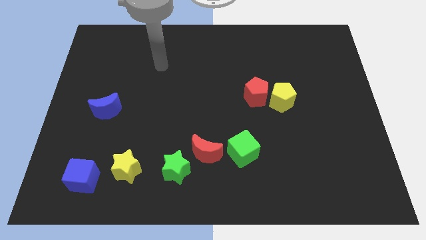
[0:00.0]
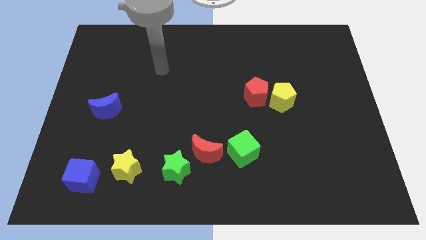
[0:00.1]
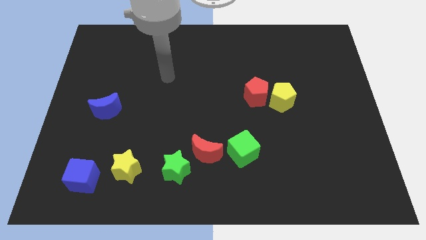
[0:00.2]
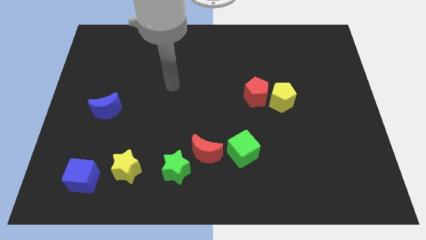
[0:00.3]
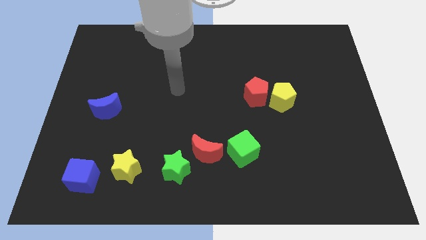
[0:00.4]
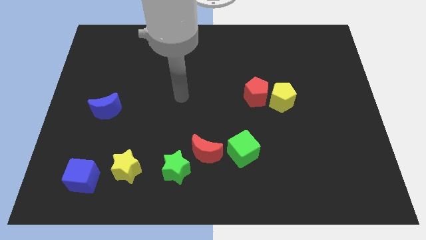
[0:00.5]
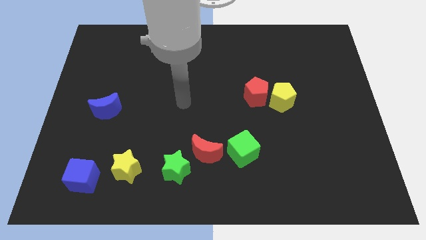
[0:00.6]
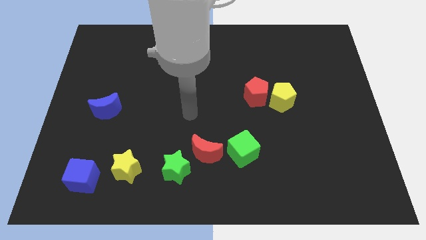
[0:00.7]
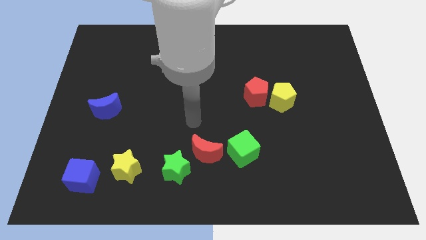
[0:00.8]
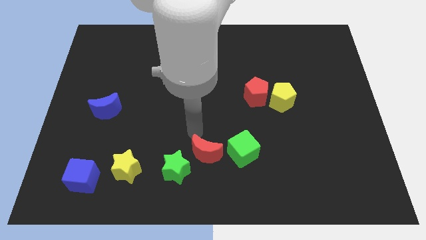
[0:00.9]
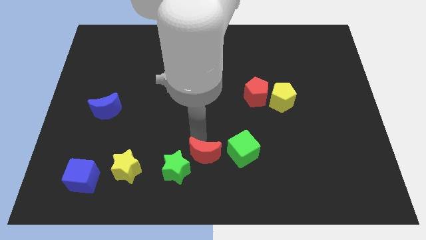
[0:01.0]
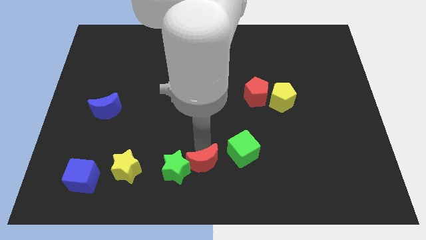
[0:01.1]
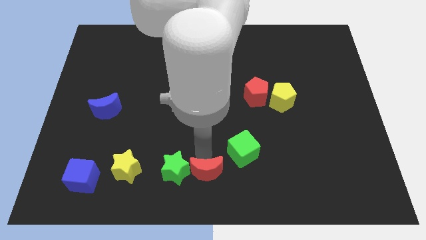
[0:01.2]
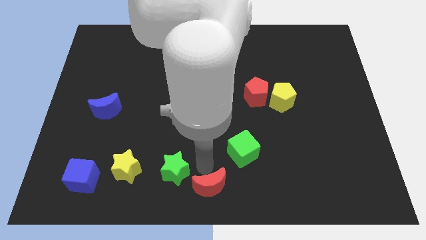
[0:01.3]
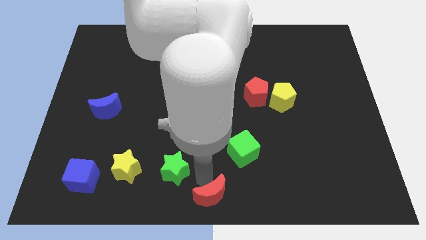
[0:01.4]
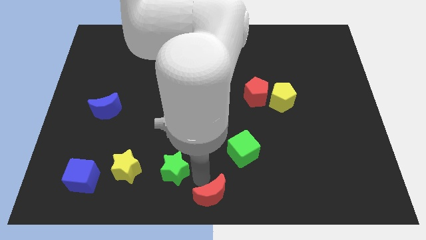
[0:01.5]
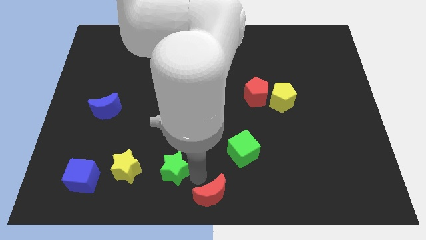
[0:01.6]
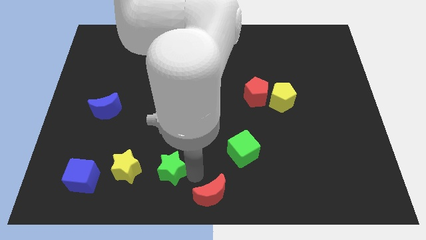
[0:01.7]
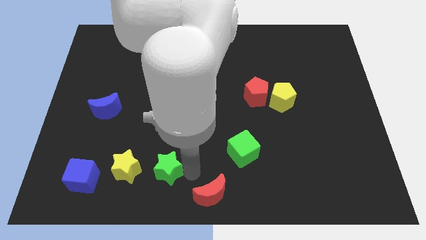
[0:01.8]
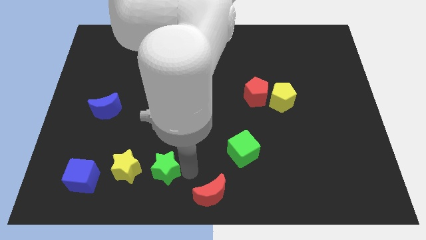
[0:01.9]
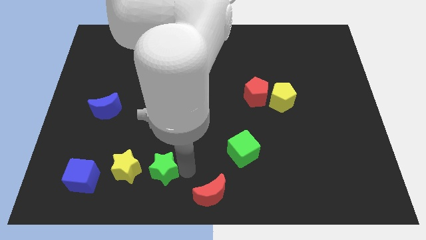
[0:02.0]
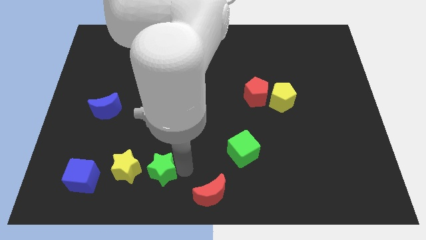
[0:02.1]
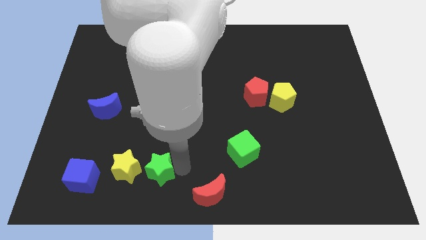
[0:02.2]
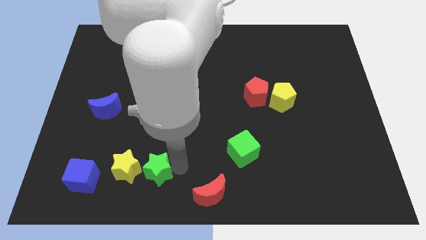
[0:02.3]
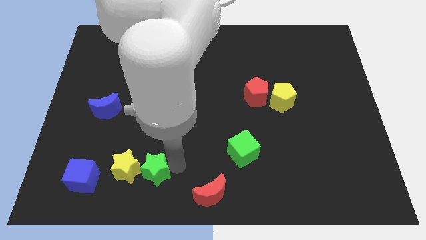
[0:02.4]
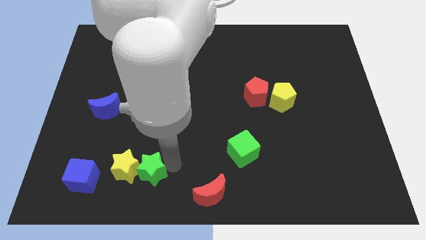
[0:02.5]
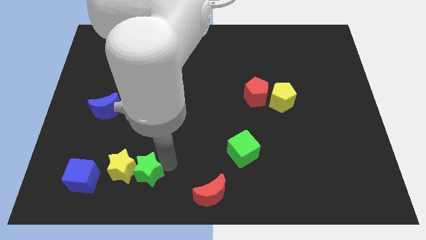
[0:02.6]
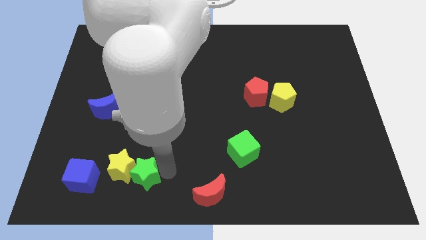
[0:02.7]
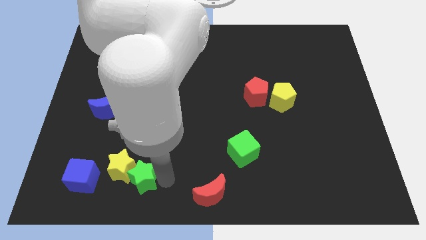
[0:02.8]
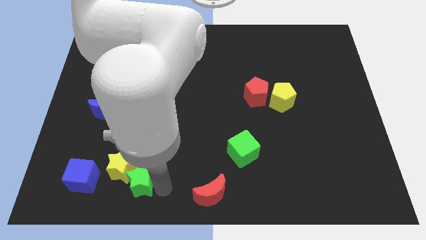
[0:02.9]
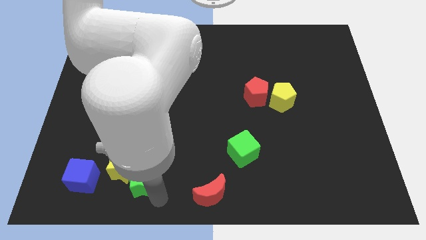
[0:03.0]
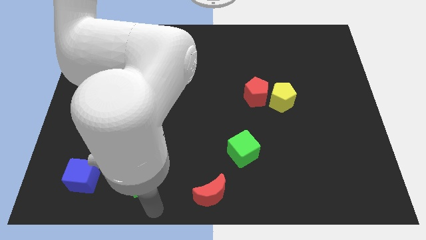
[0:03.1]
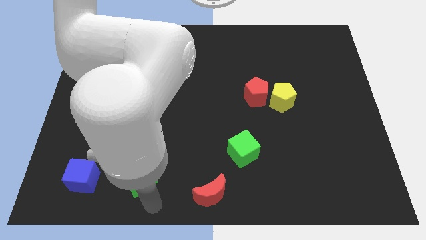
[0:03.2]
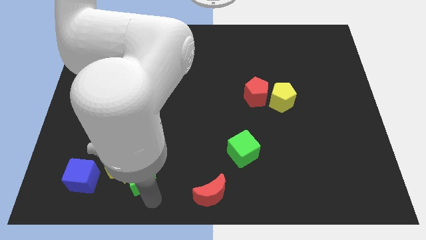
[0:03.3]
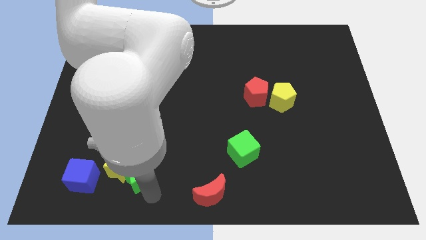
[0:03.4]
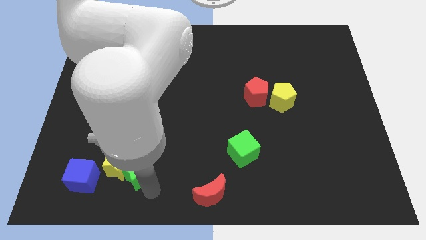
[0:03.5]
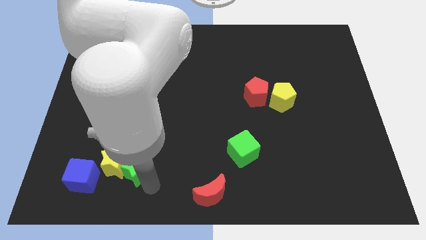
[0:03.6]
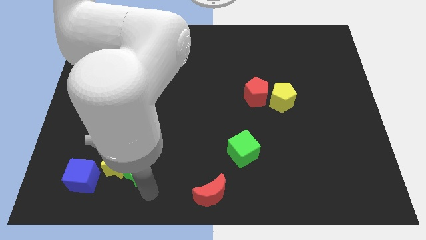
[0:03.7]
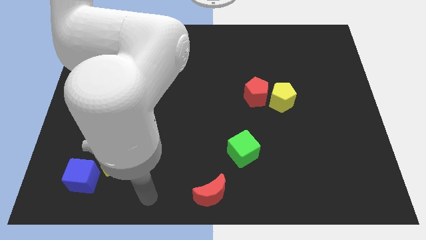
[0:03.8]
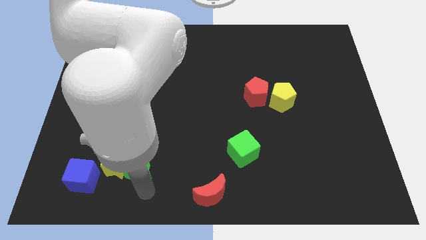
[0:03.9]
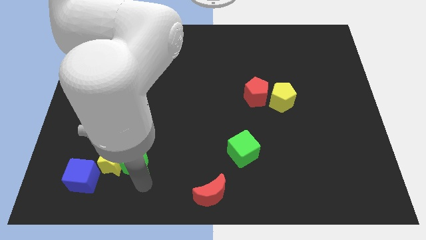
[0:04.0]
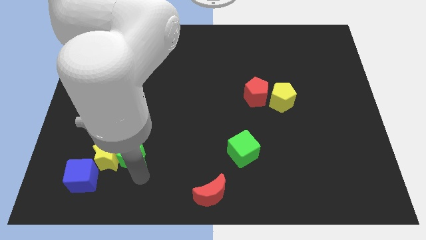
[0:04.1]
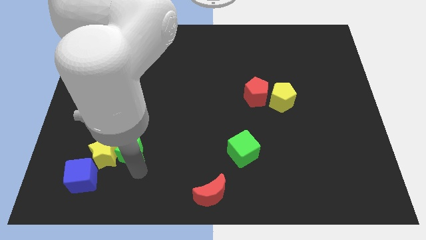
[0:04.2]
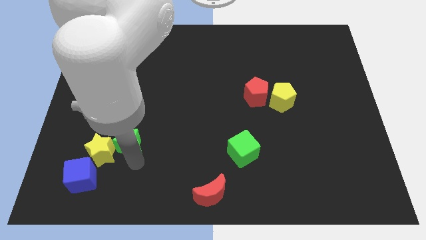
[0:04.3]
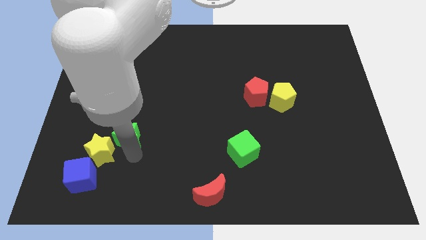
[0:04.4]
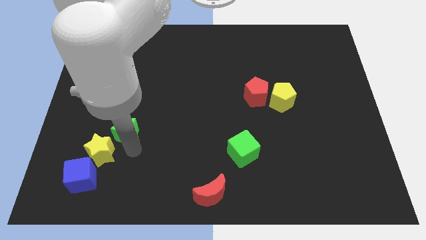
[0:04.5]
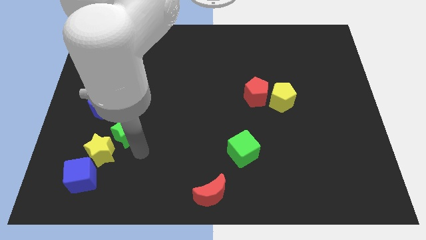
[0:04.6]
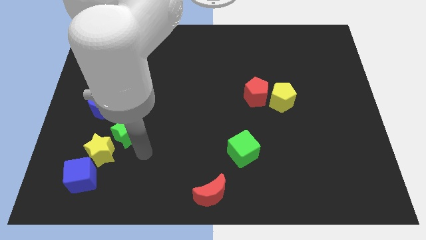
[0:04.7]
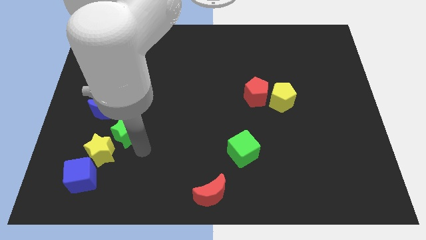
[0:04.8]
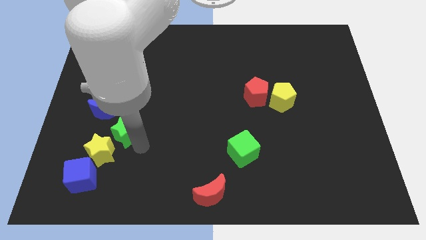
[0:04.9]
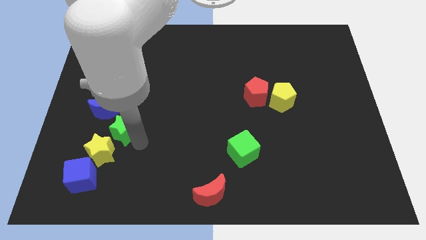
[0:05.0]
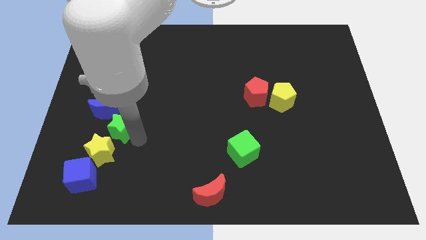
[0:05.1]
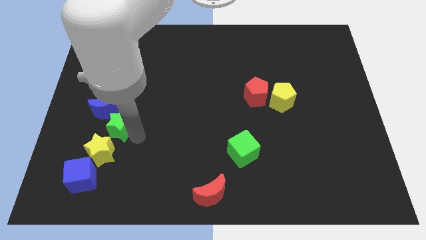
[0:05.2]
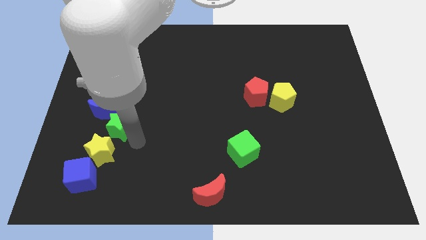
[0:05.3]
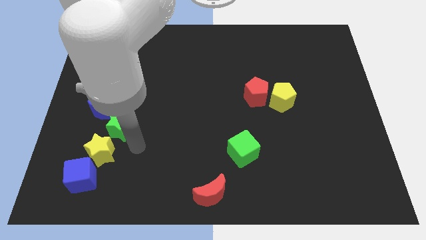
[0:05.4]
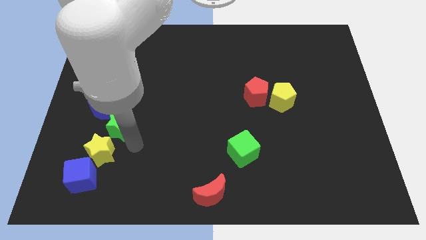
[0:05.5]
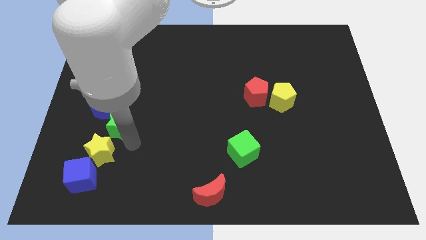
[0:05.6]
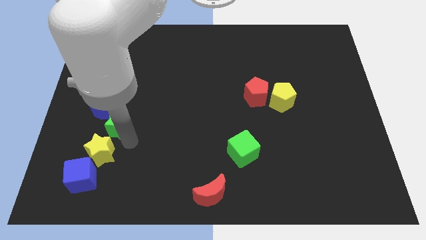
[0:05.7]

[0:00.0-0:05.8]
move the green star close to the blue moon

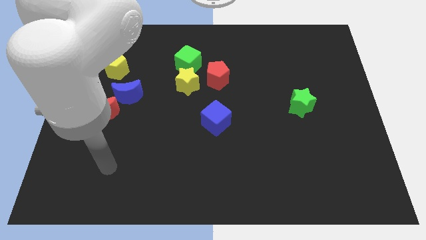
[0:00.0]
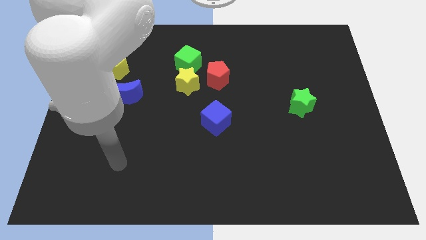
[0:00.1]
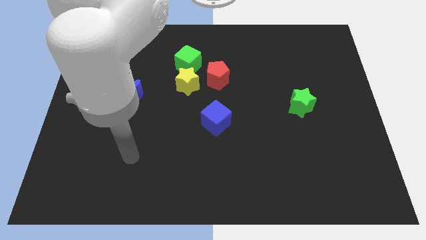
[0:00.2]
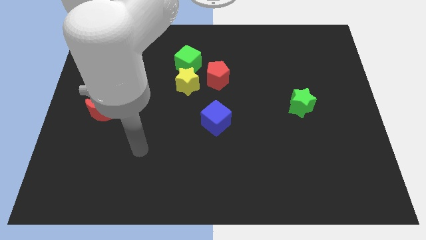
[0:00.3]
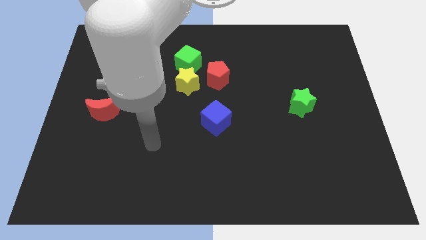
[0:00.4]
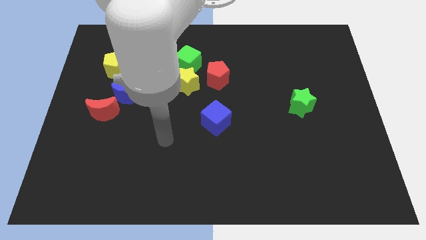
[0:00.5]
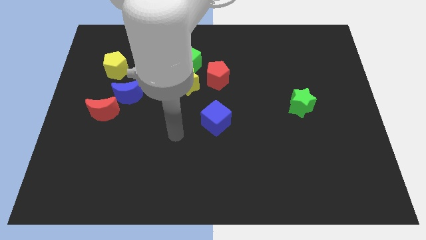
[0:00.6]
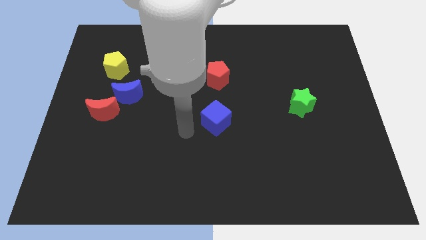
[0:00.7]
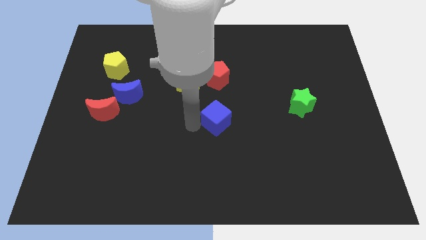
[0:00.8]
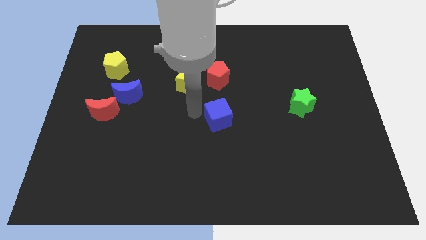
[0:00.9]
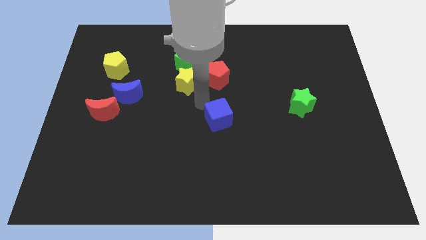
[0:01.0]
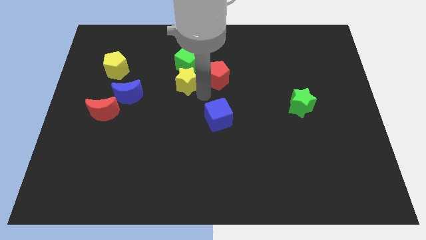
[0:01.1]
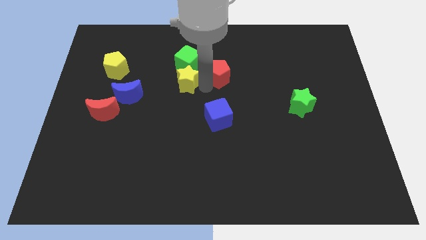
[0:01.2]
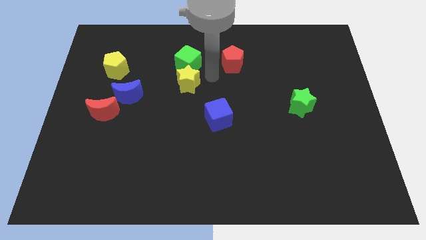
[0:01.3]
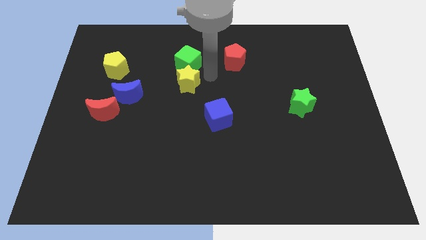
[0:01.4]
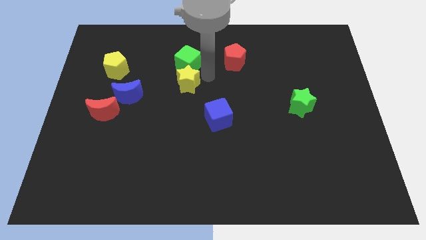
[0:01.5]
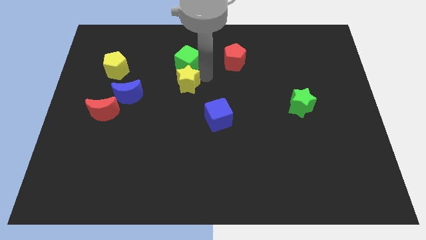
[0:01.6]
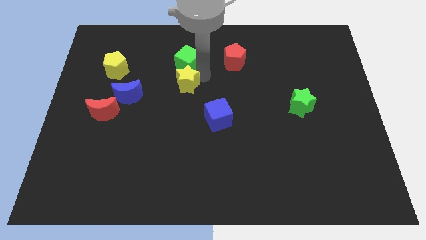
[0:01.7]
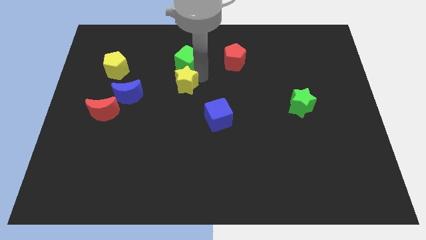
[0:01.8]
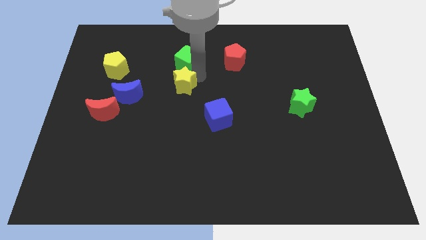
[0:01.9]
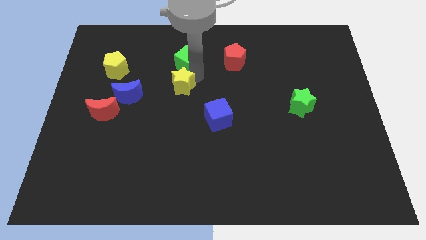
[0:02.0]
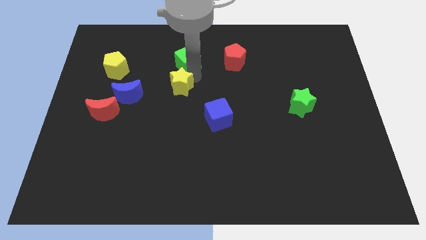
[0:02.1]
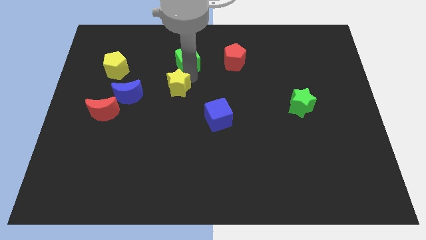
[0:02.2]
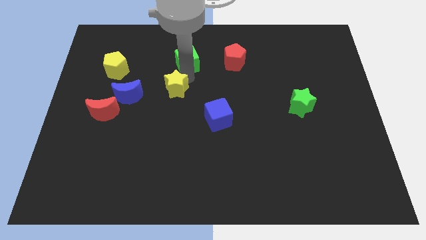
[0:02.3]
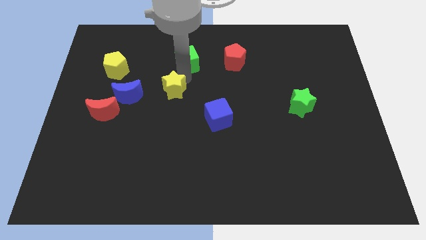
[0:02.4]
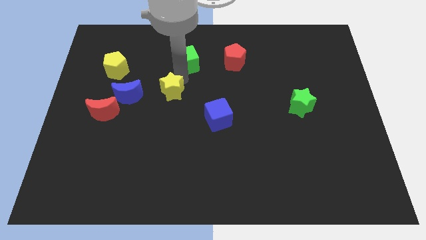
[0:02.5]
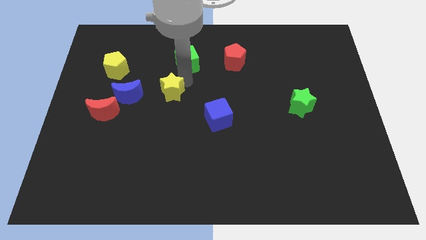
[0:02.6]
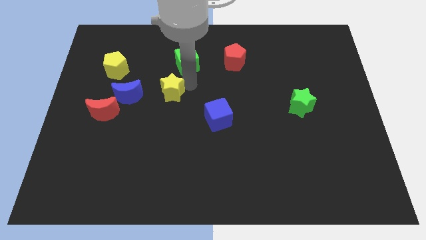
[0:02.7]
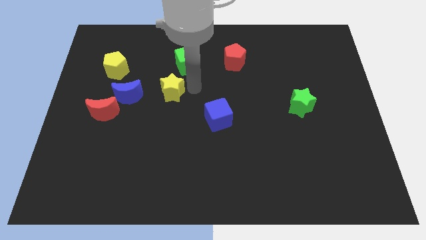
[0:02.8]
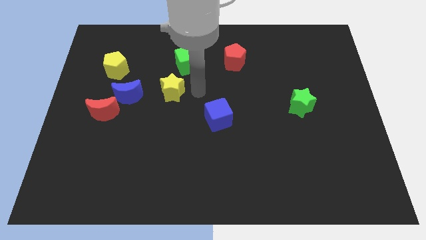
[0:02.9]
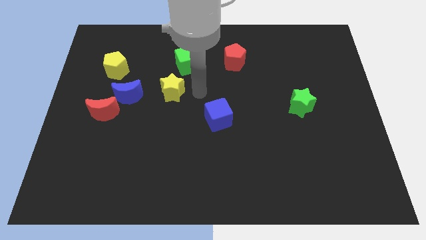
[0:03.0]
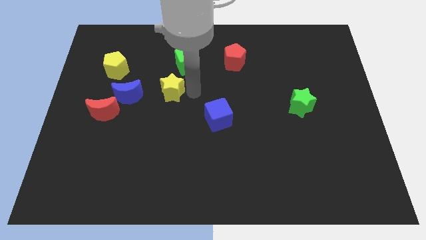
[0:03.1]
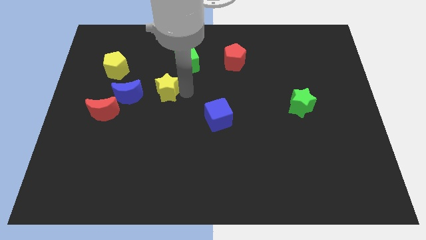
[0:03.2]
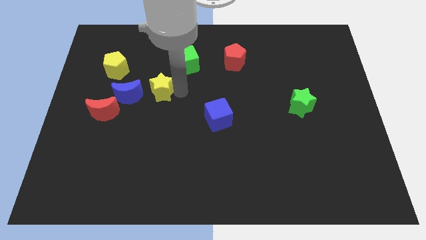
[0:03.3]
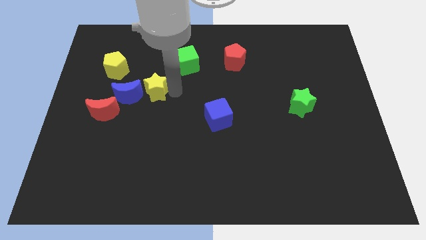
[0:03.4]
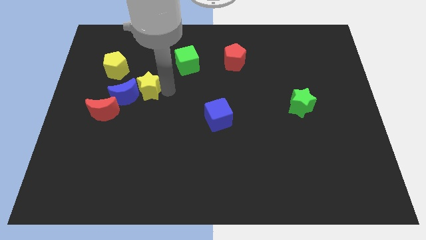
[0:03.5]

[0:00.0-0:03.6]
put the yellow star towards the blue moon
